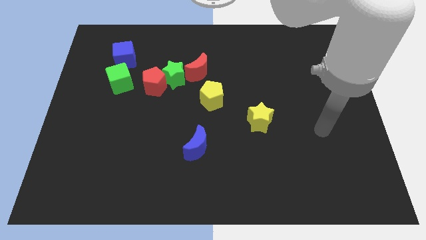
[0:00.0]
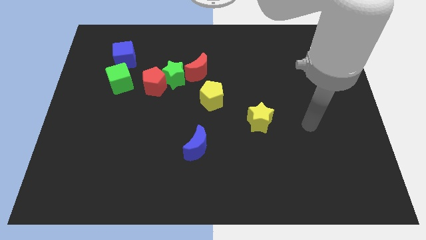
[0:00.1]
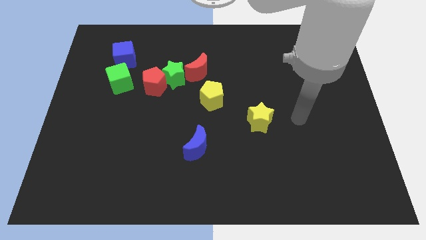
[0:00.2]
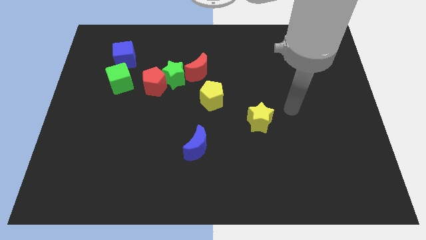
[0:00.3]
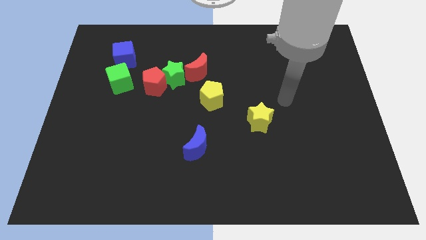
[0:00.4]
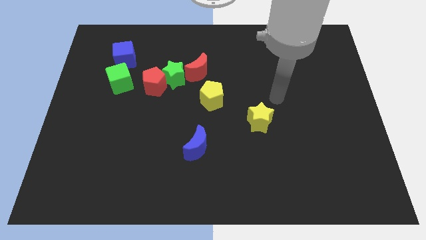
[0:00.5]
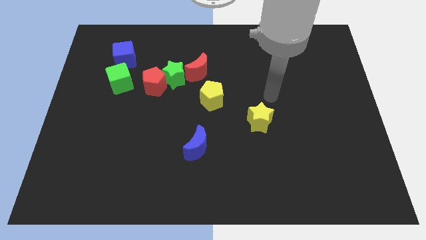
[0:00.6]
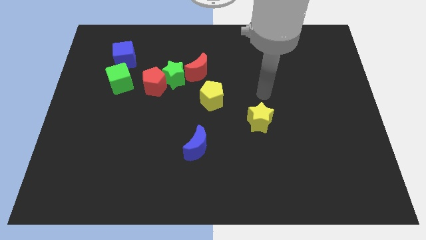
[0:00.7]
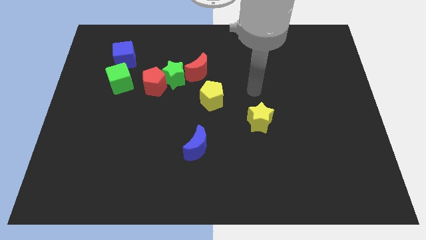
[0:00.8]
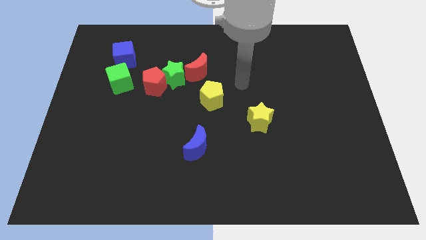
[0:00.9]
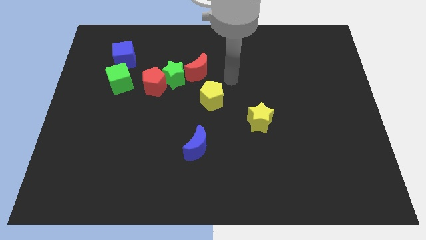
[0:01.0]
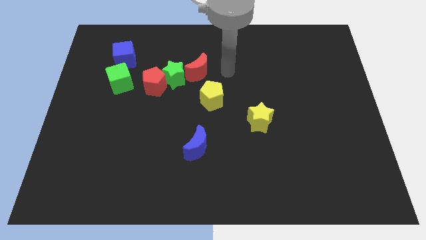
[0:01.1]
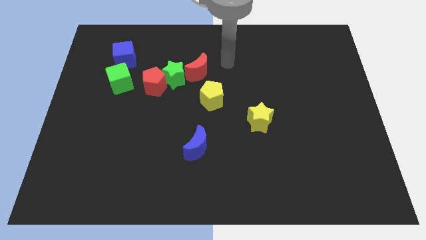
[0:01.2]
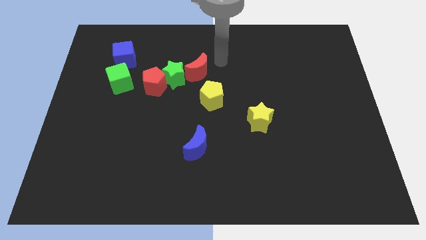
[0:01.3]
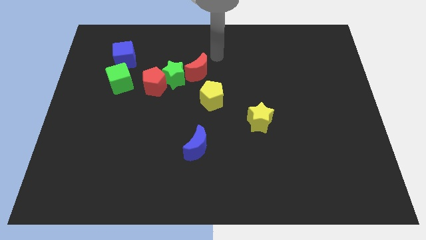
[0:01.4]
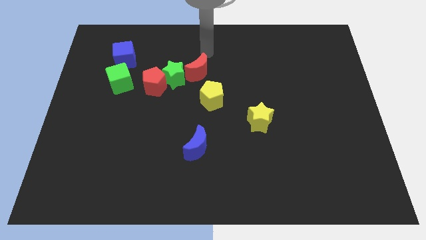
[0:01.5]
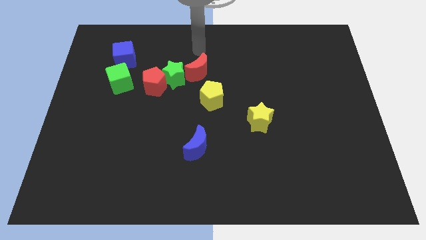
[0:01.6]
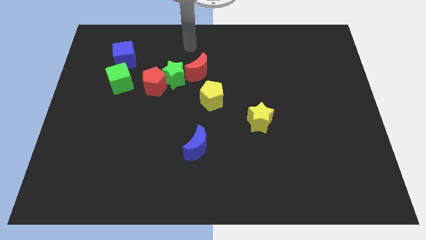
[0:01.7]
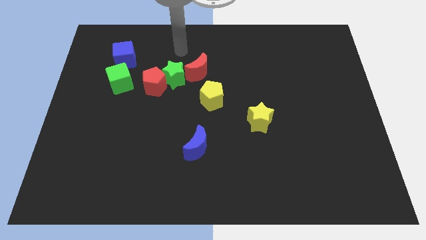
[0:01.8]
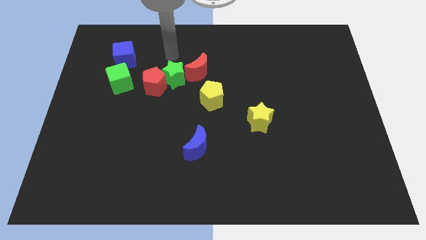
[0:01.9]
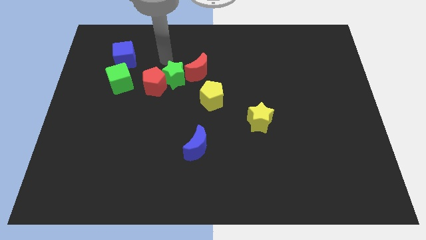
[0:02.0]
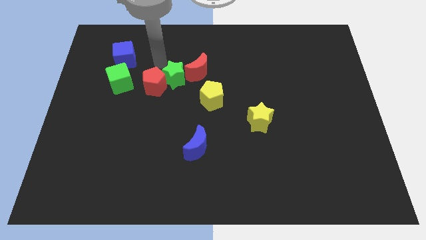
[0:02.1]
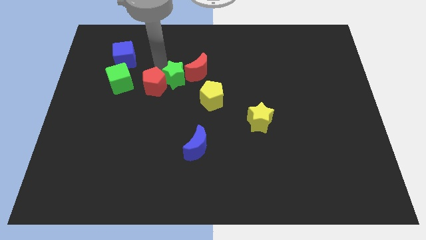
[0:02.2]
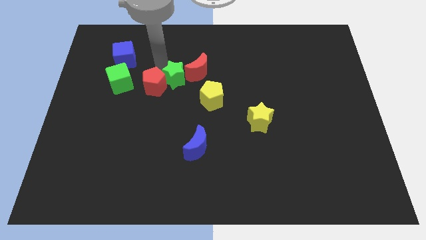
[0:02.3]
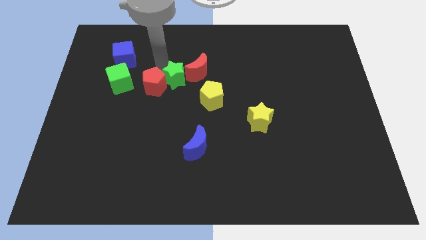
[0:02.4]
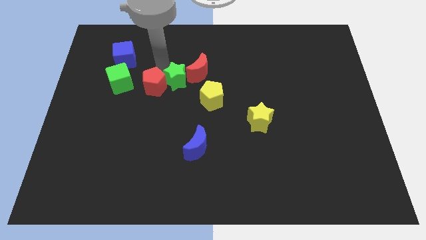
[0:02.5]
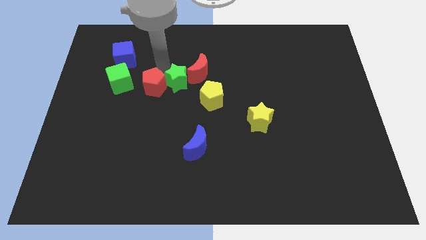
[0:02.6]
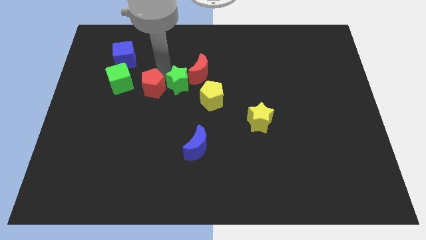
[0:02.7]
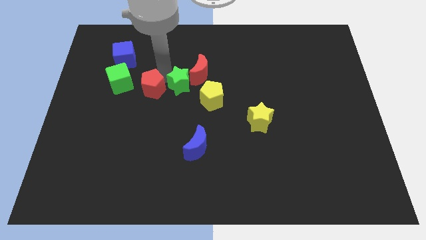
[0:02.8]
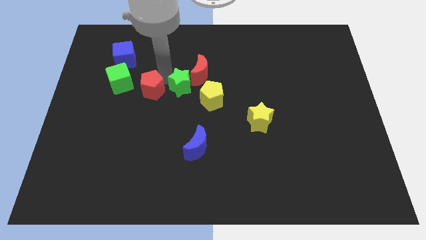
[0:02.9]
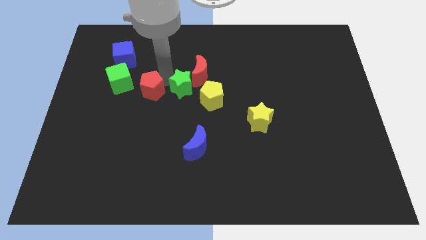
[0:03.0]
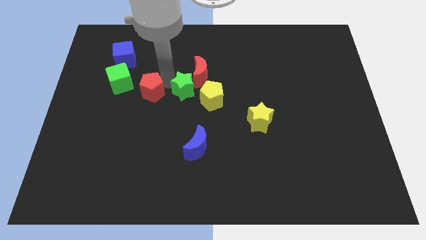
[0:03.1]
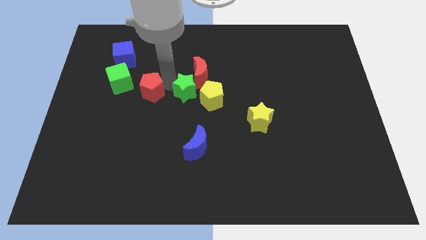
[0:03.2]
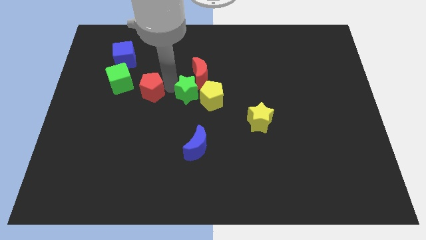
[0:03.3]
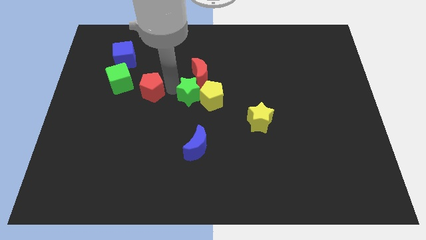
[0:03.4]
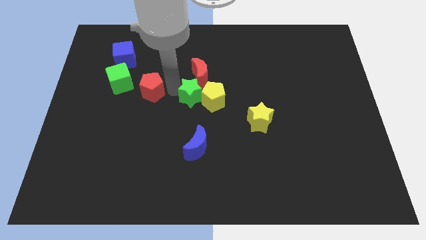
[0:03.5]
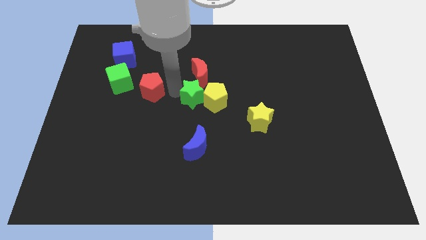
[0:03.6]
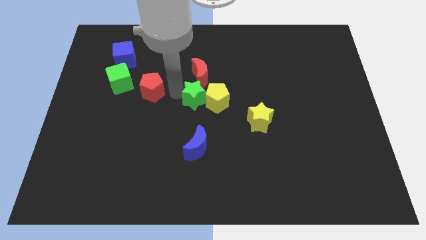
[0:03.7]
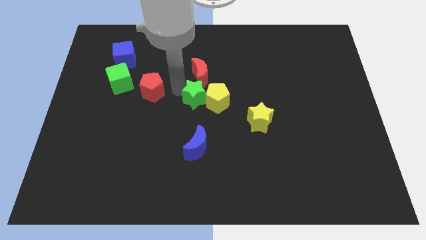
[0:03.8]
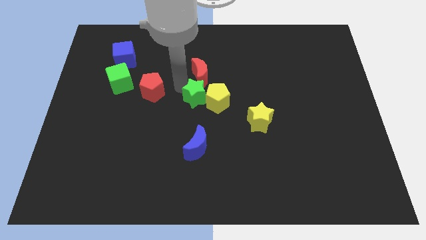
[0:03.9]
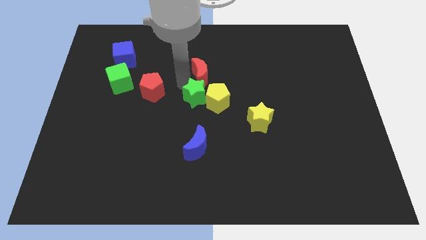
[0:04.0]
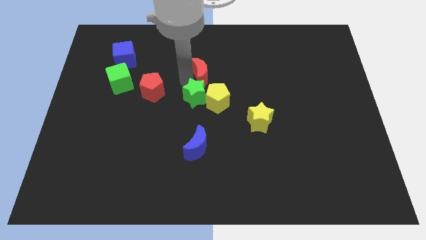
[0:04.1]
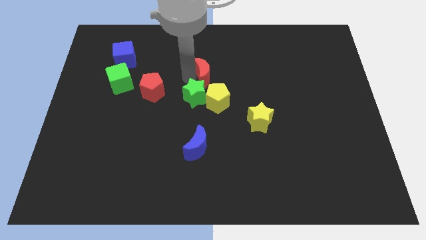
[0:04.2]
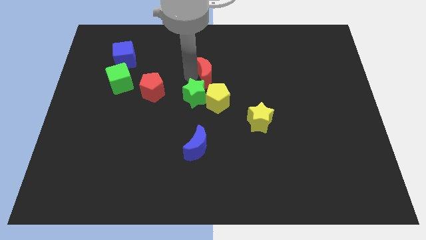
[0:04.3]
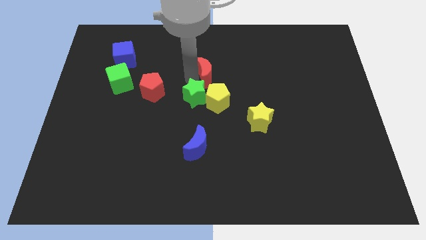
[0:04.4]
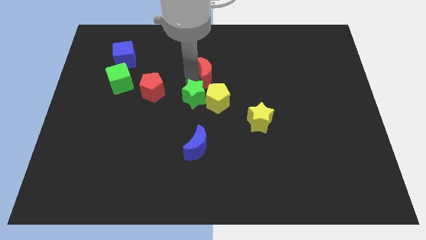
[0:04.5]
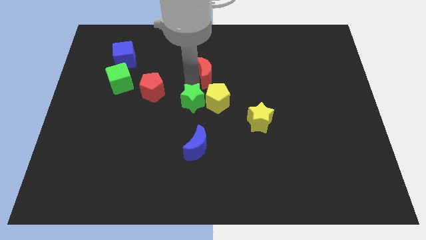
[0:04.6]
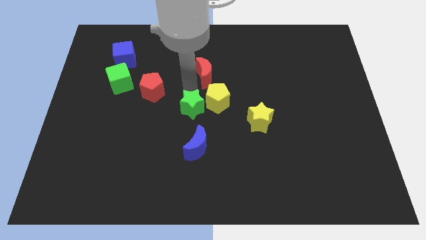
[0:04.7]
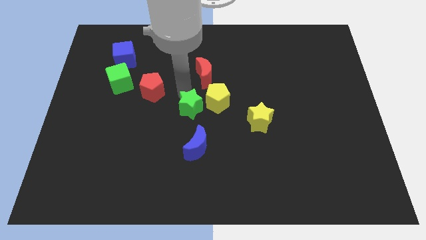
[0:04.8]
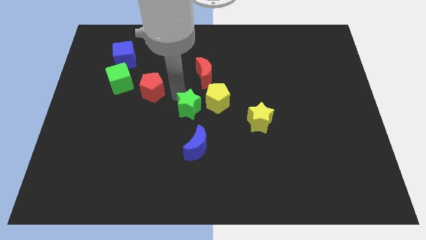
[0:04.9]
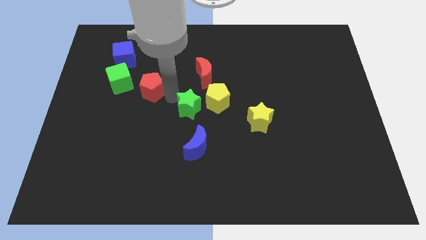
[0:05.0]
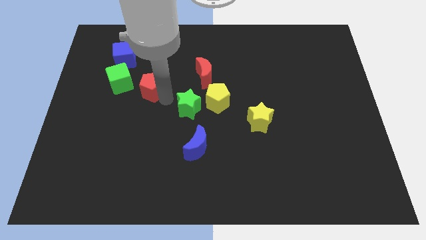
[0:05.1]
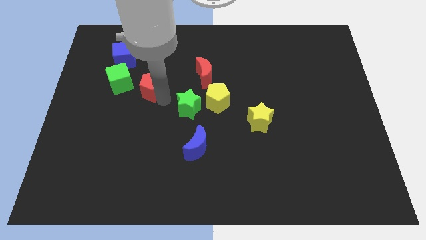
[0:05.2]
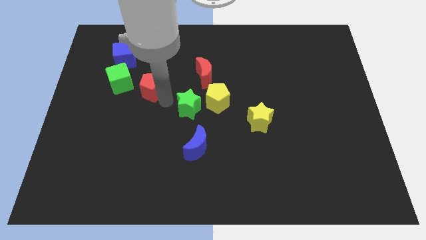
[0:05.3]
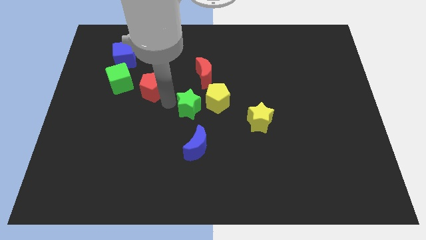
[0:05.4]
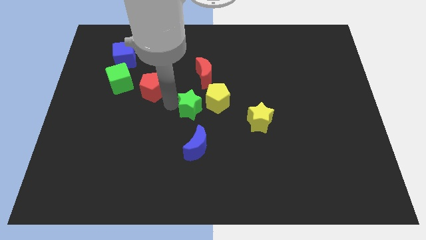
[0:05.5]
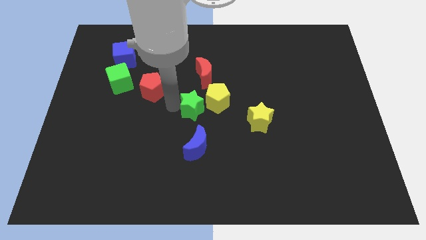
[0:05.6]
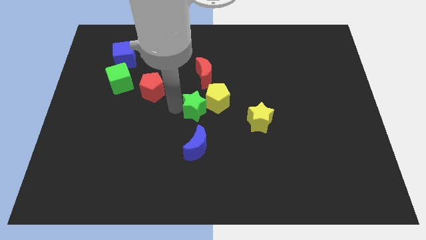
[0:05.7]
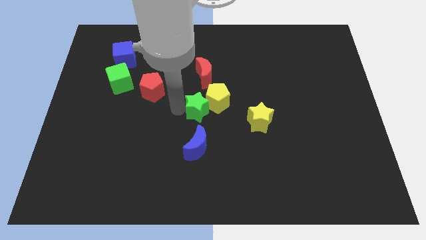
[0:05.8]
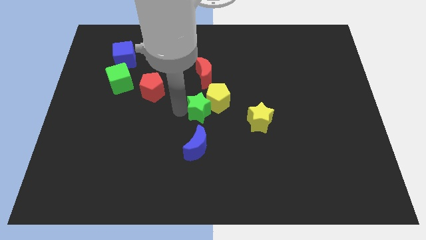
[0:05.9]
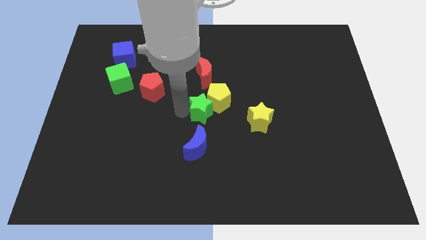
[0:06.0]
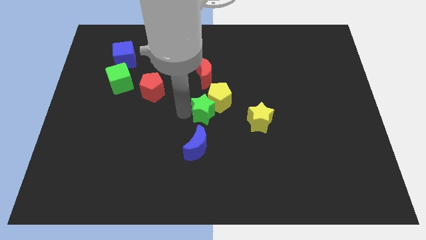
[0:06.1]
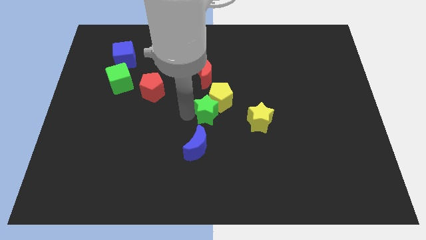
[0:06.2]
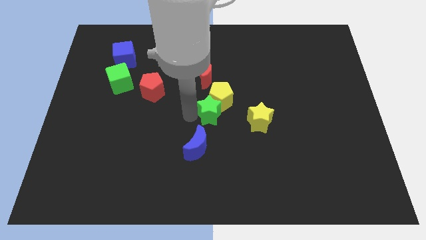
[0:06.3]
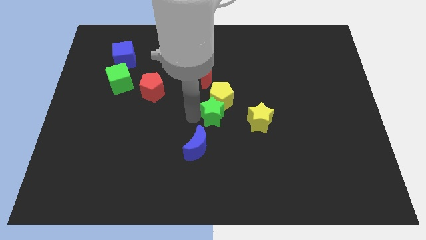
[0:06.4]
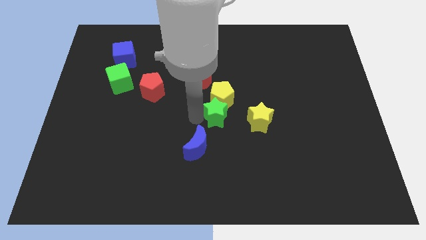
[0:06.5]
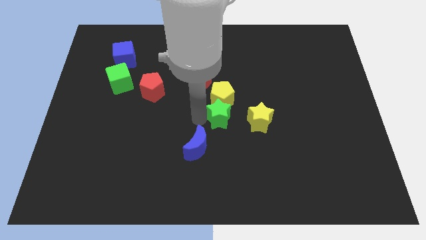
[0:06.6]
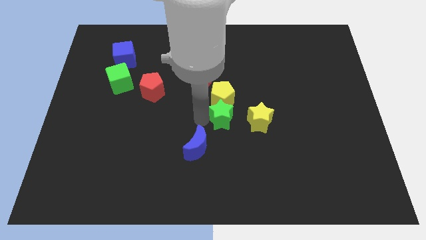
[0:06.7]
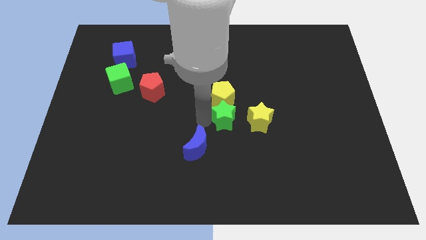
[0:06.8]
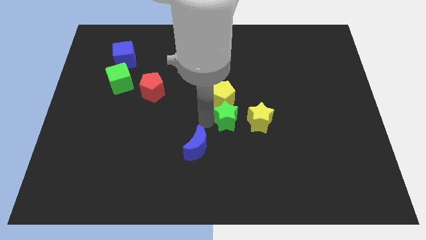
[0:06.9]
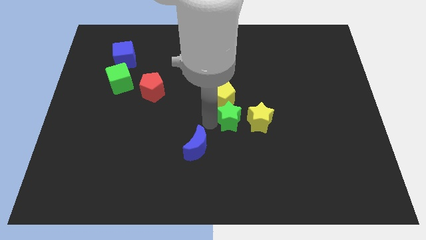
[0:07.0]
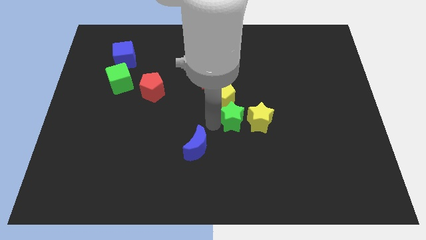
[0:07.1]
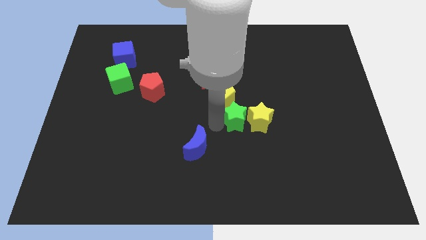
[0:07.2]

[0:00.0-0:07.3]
put the green star next to the yellow star
